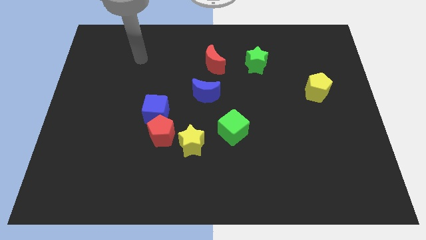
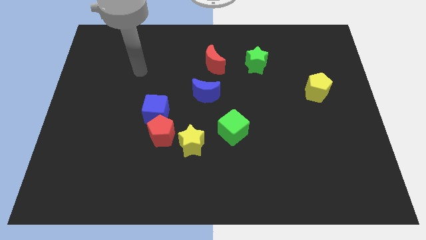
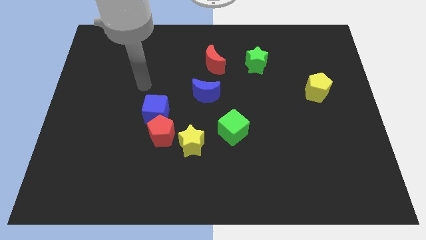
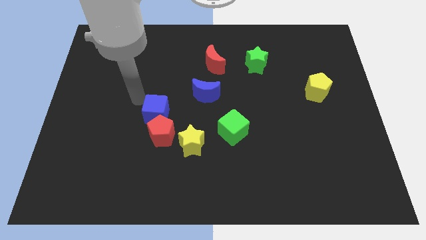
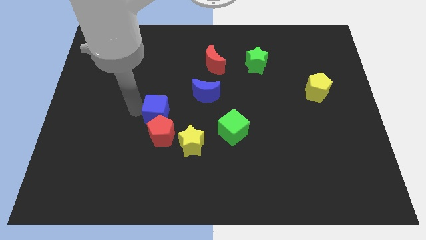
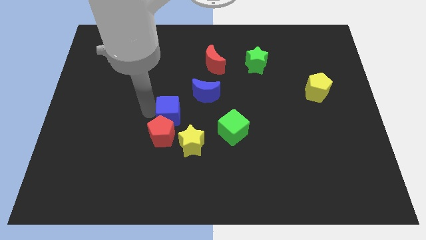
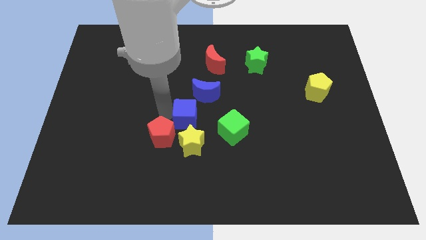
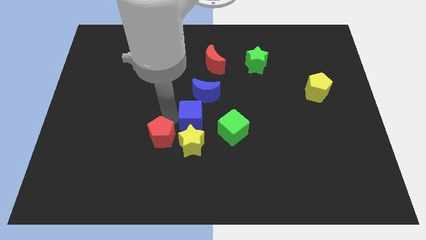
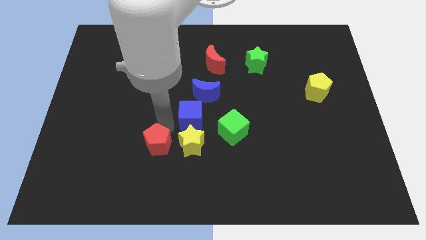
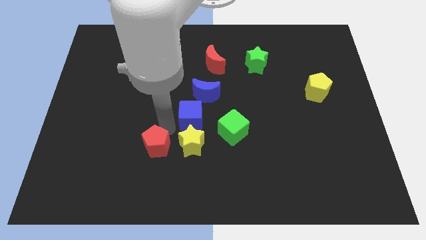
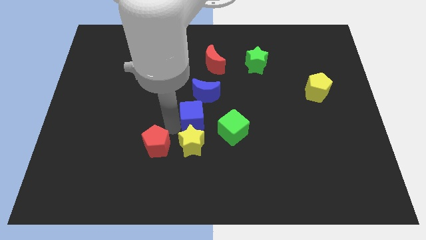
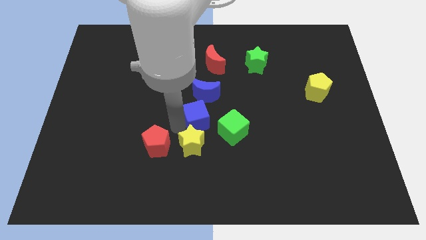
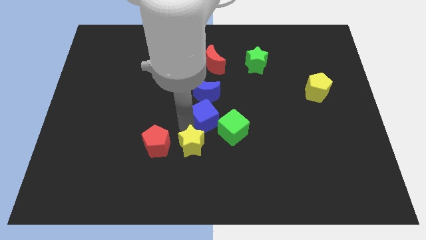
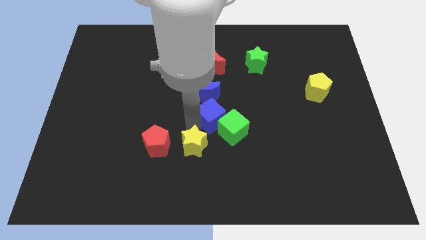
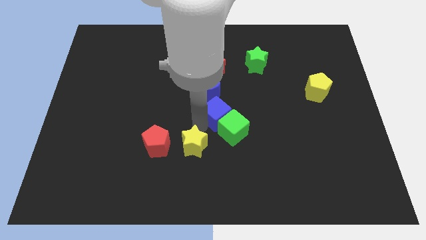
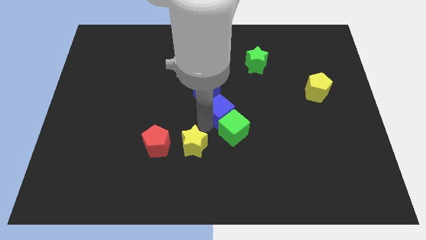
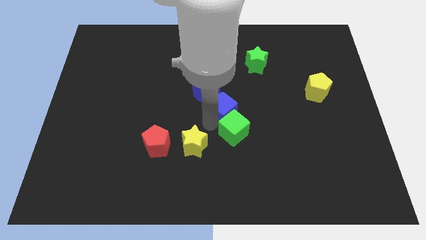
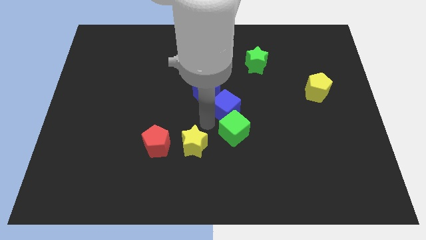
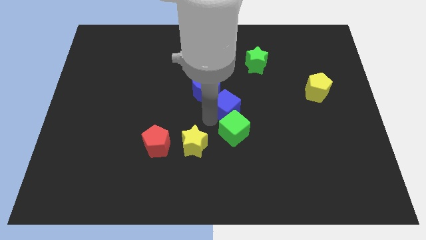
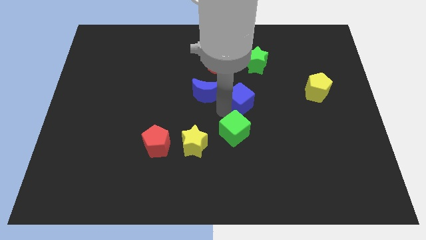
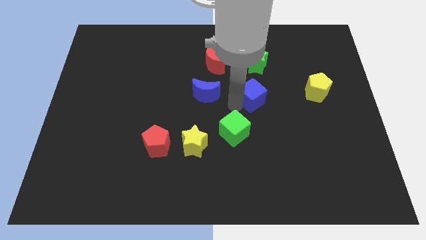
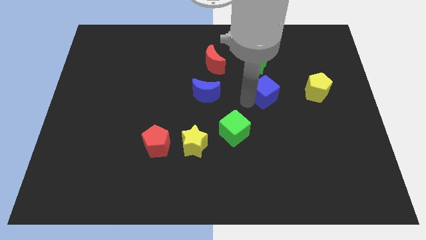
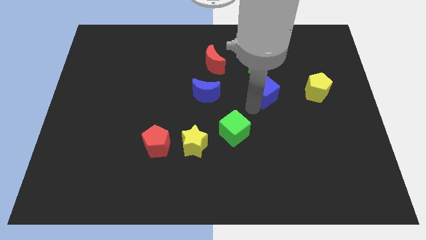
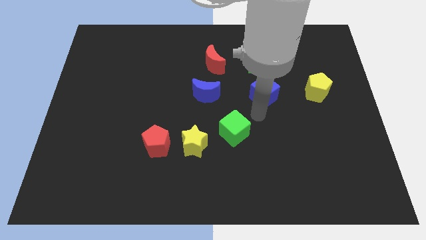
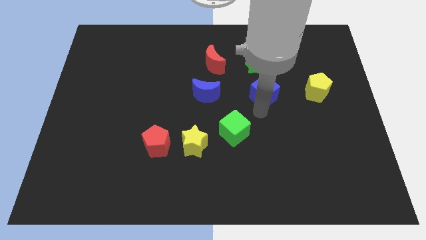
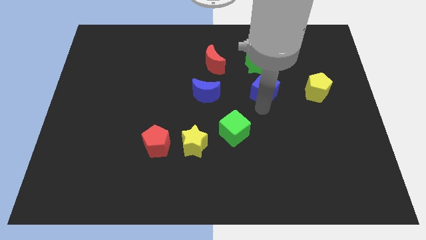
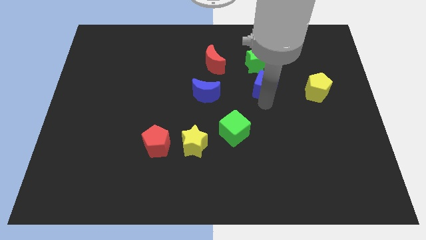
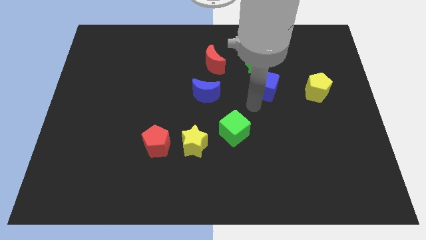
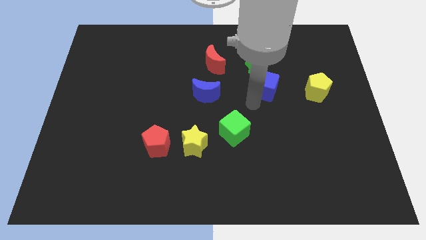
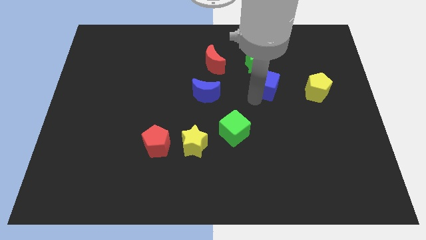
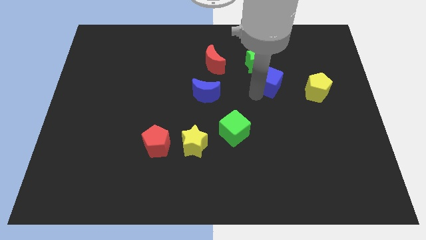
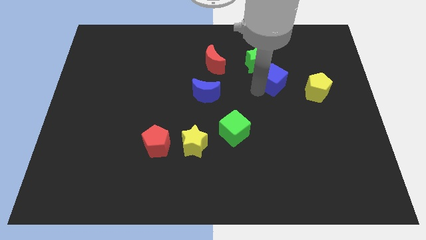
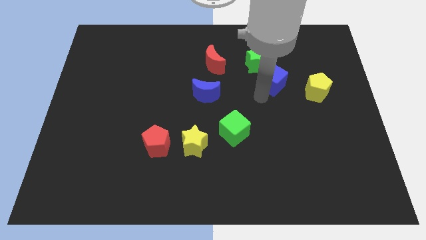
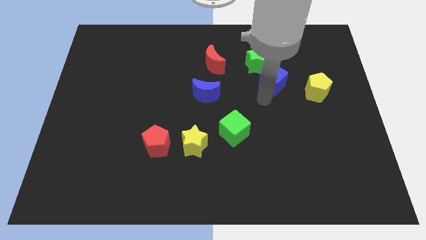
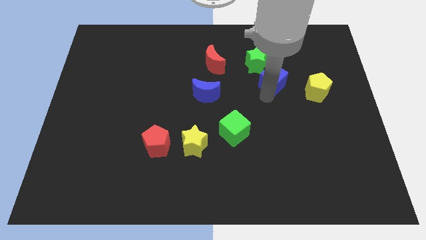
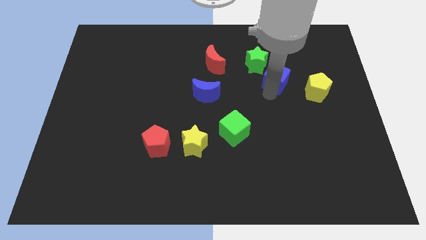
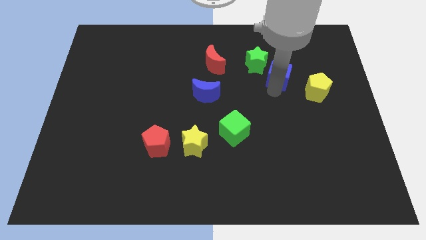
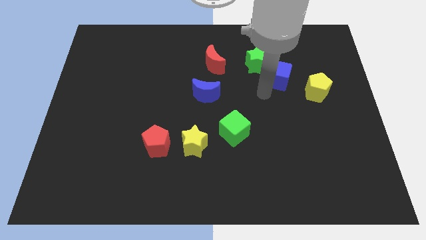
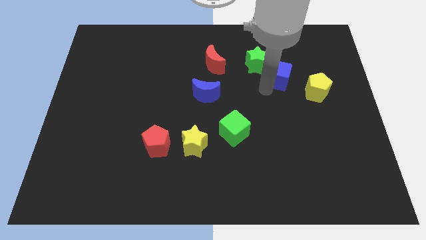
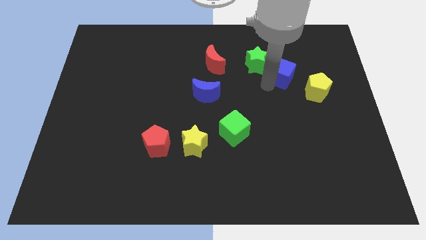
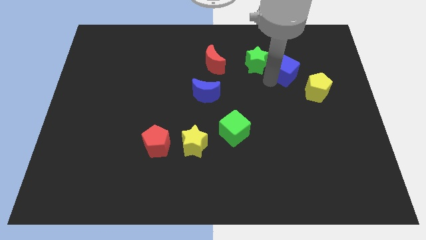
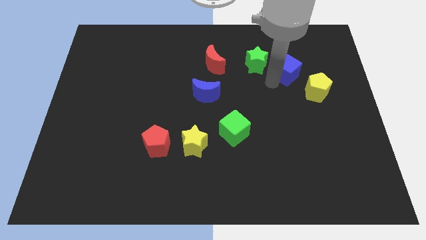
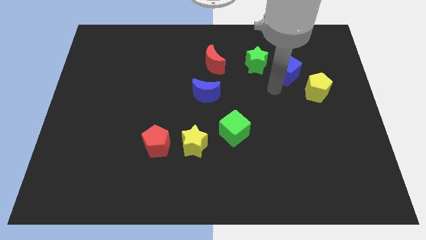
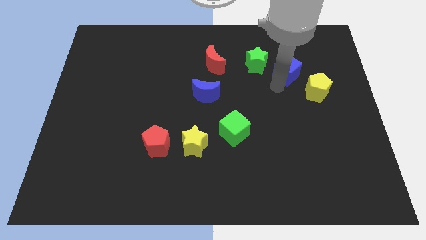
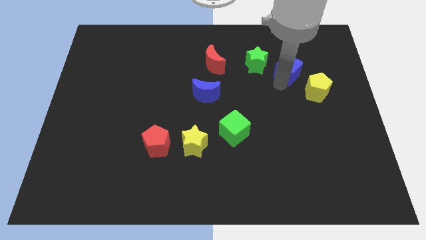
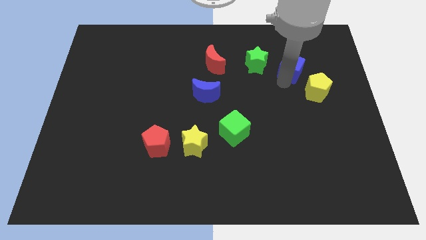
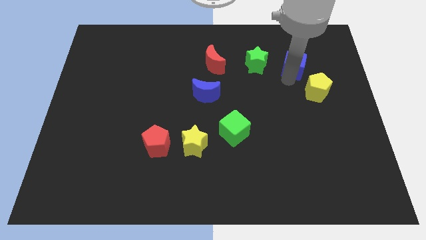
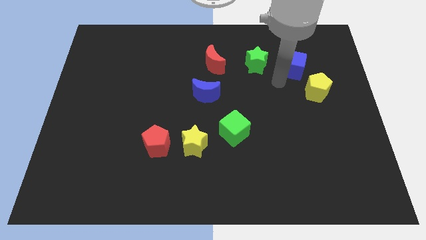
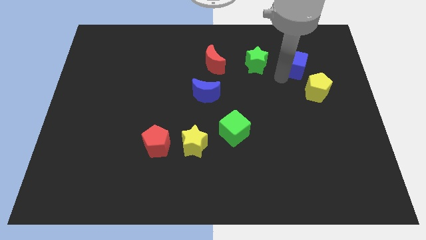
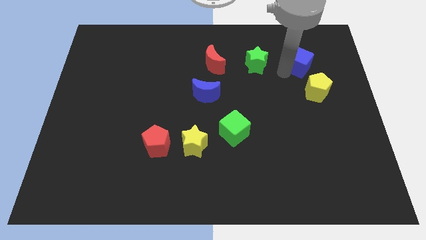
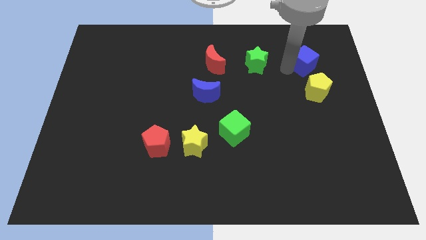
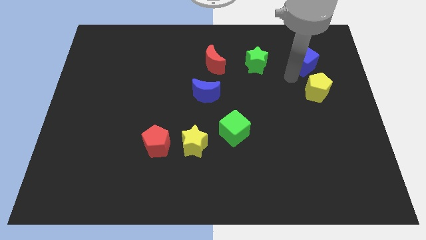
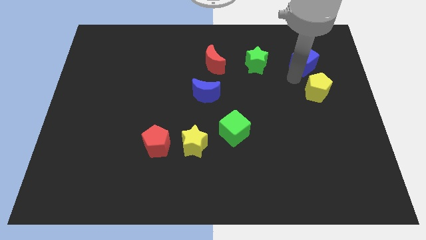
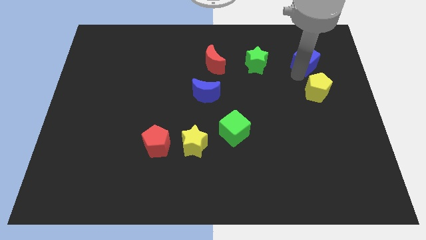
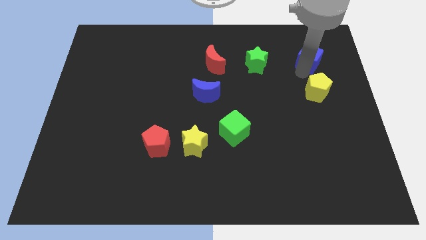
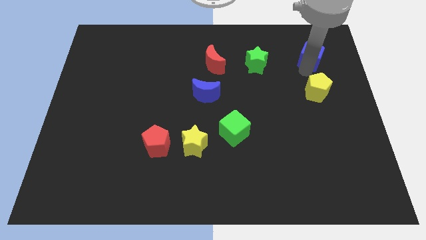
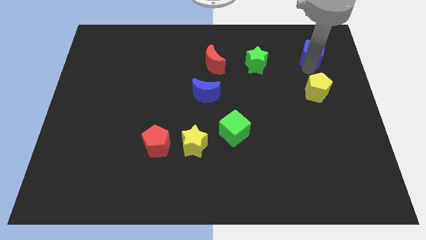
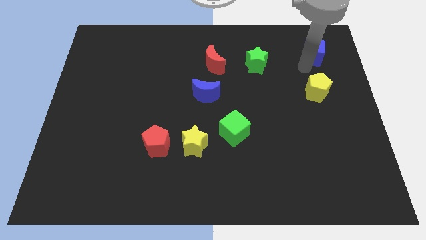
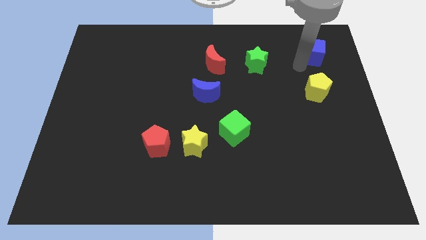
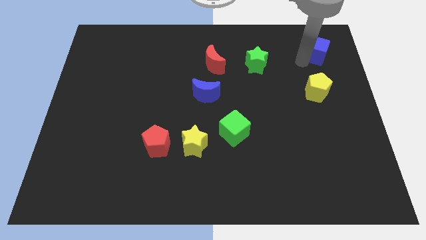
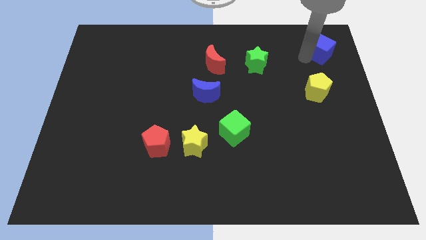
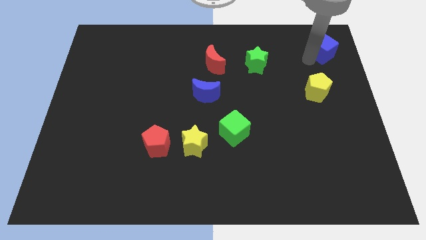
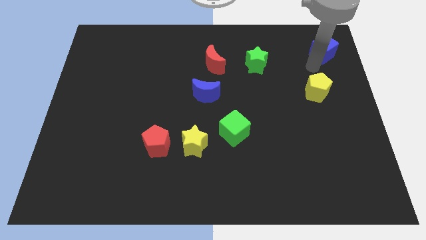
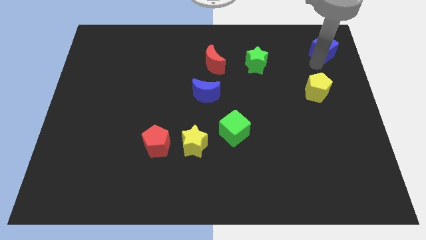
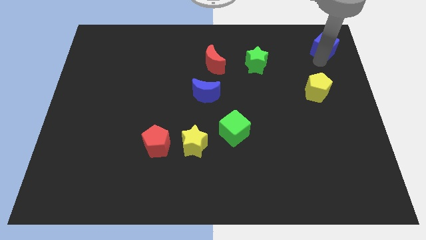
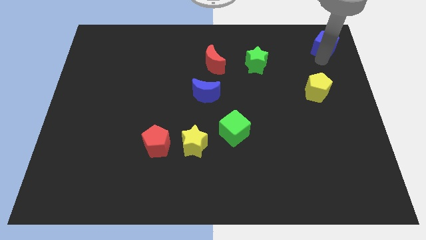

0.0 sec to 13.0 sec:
push the blue cube to the upper right corner
